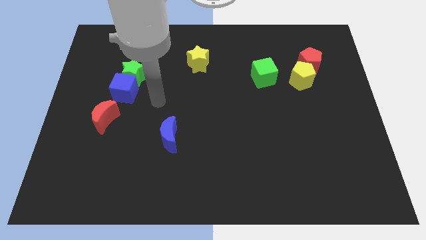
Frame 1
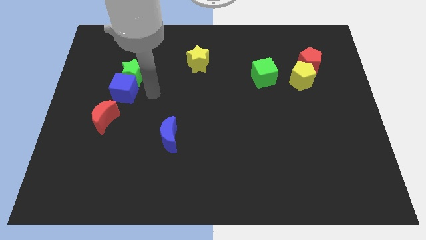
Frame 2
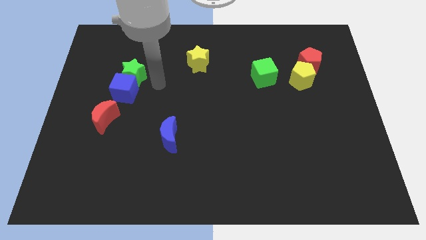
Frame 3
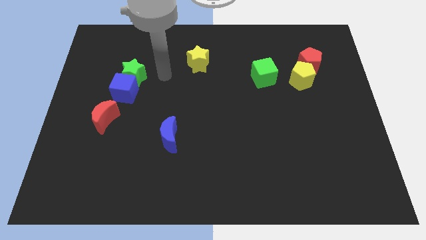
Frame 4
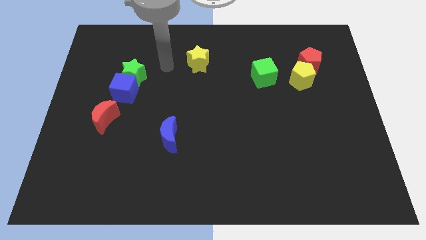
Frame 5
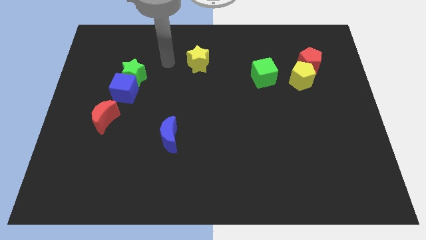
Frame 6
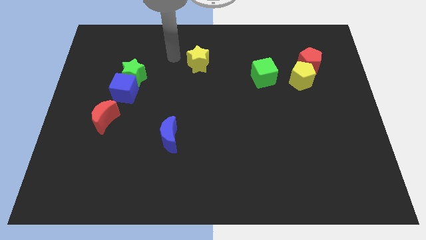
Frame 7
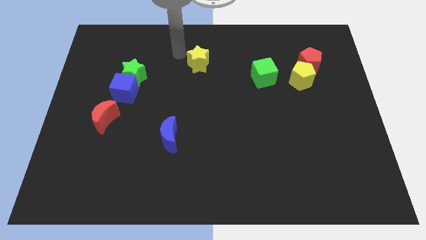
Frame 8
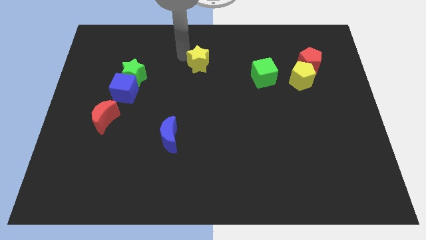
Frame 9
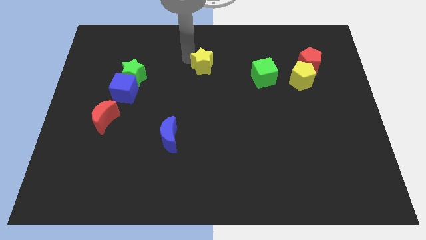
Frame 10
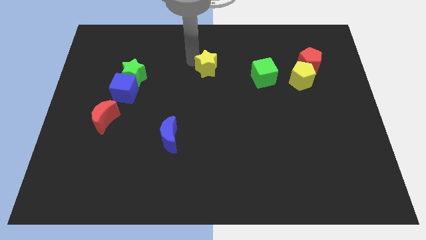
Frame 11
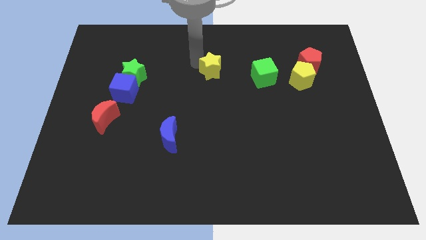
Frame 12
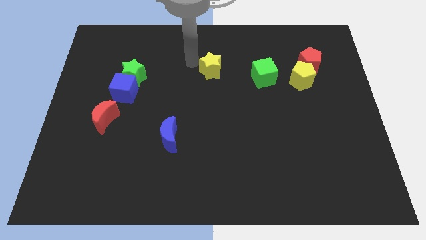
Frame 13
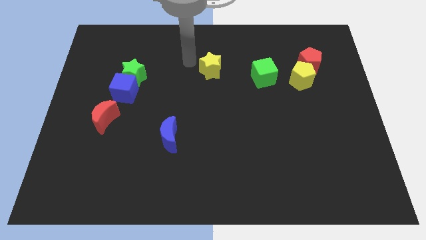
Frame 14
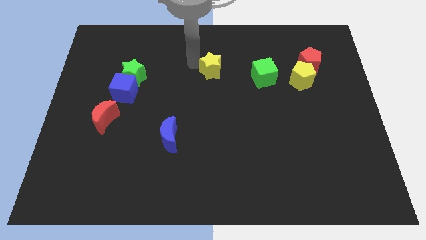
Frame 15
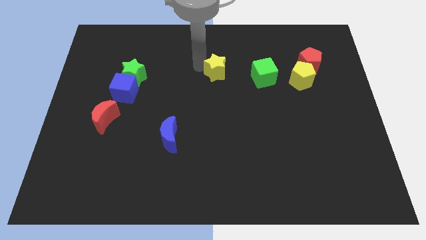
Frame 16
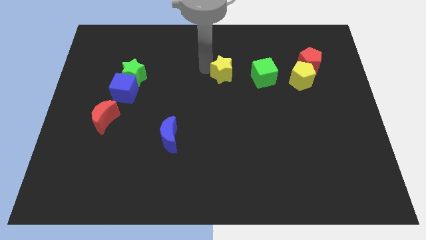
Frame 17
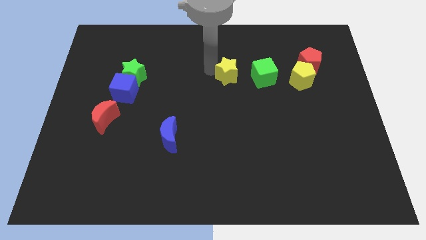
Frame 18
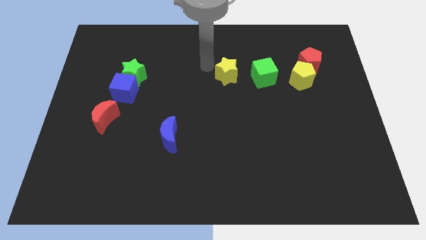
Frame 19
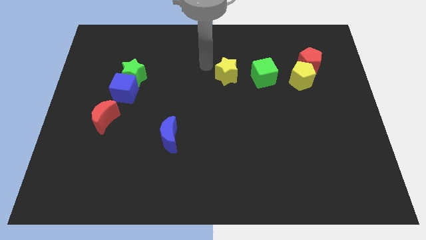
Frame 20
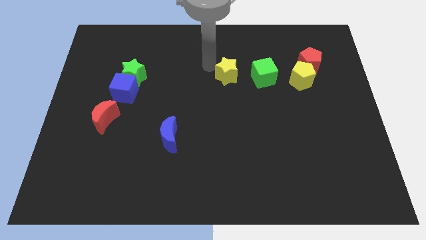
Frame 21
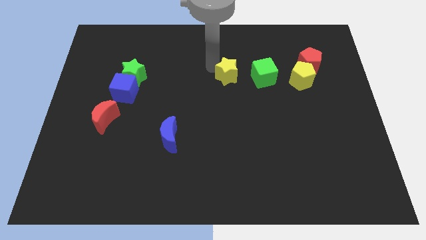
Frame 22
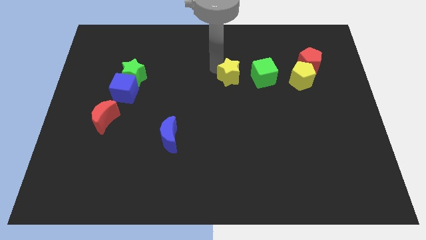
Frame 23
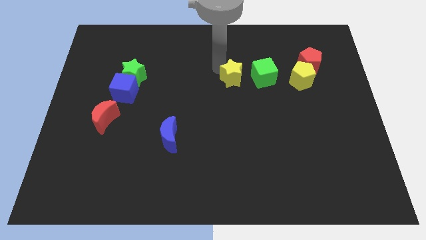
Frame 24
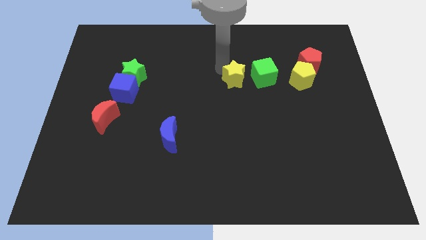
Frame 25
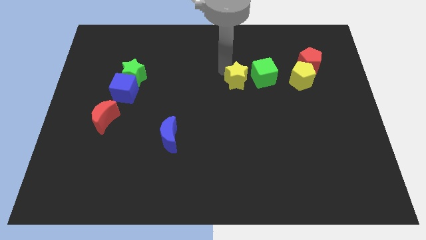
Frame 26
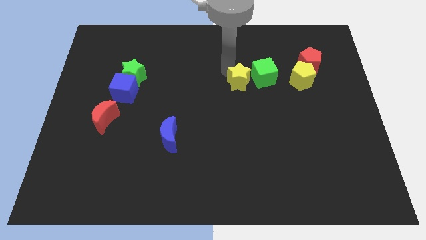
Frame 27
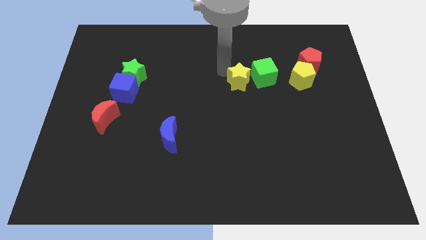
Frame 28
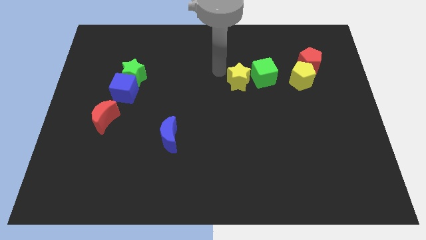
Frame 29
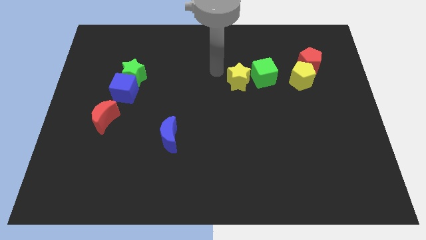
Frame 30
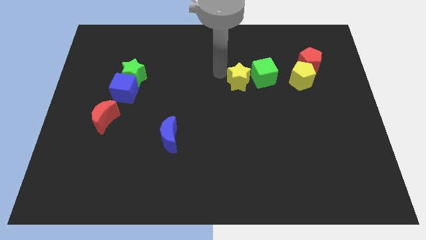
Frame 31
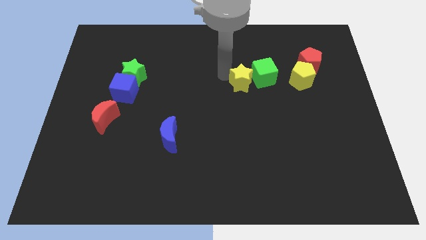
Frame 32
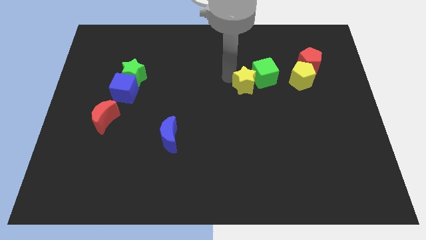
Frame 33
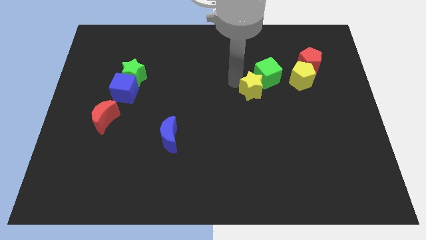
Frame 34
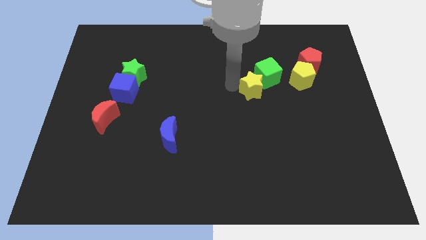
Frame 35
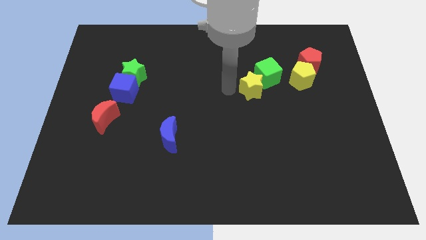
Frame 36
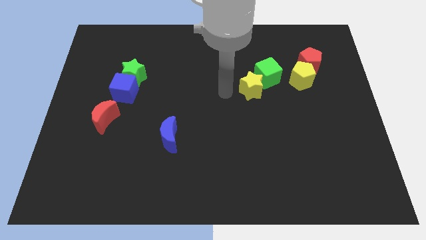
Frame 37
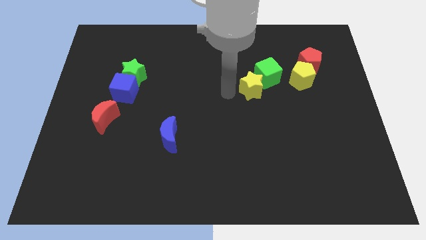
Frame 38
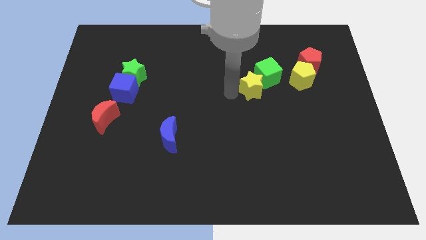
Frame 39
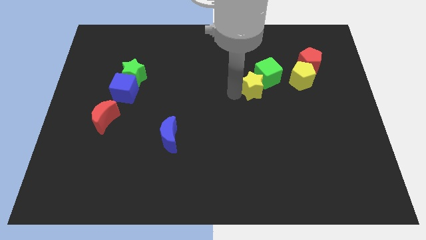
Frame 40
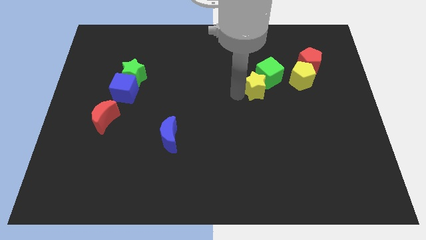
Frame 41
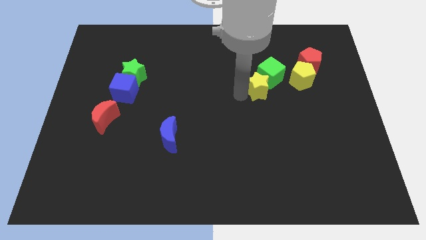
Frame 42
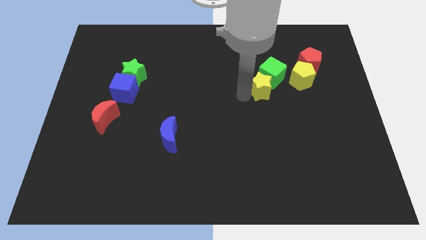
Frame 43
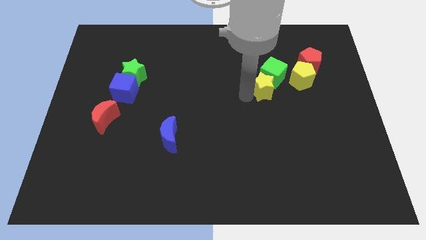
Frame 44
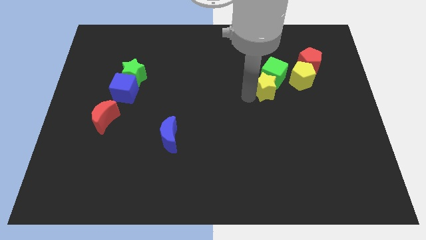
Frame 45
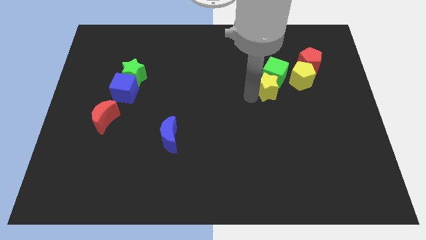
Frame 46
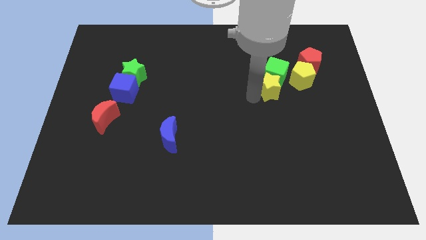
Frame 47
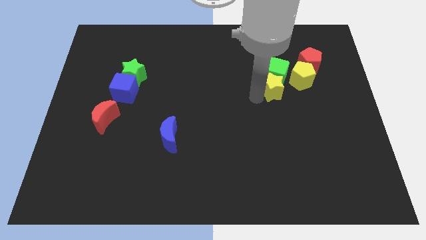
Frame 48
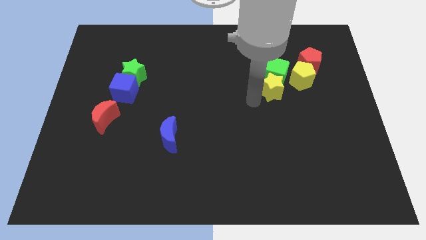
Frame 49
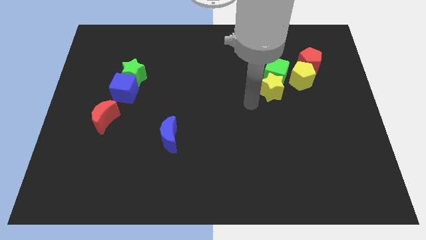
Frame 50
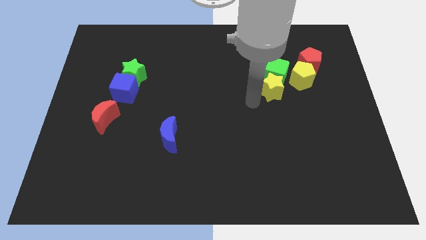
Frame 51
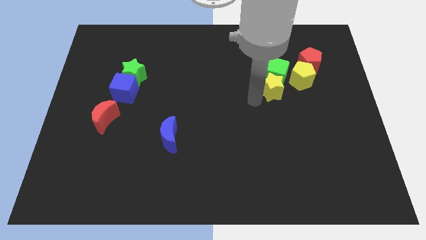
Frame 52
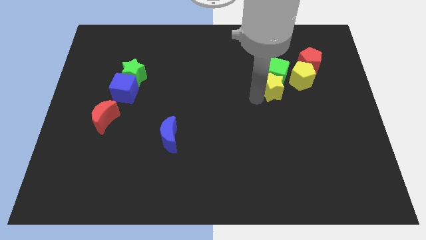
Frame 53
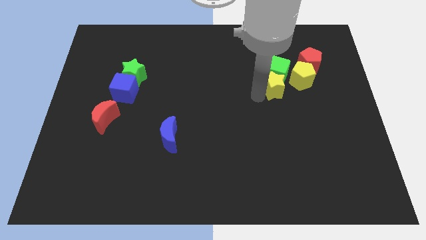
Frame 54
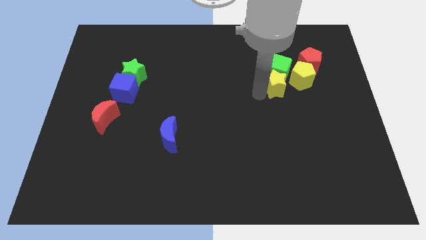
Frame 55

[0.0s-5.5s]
push the yellow star to the bottom left of the red pentagon

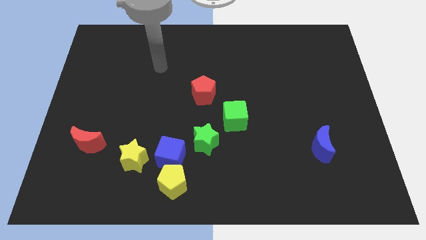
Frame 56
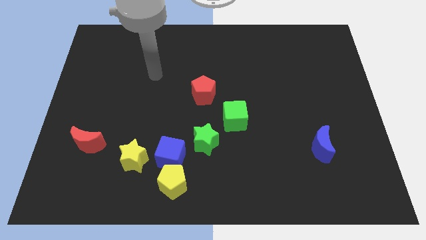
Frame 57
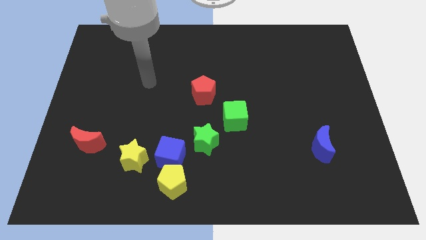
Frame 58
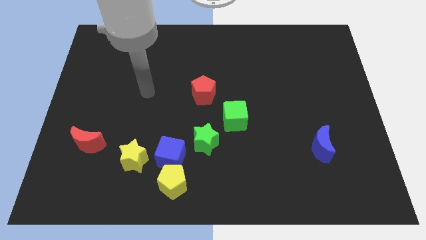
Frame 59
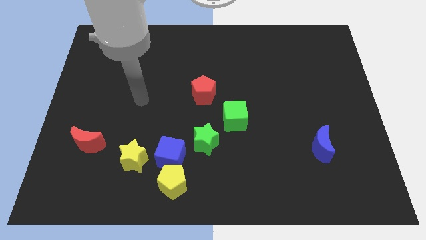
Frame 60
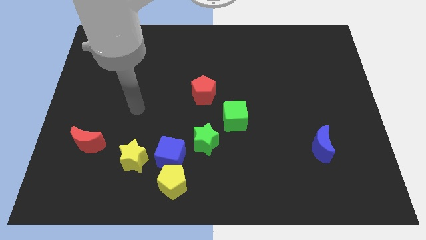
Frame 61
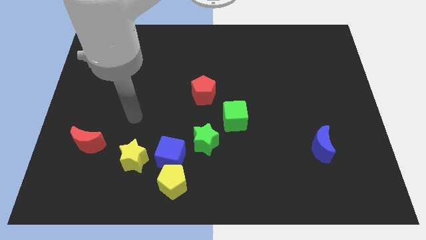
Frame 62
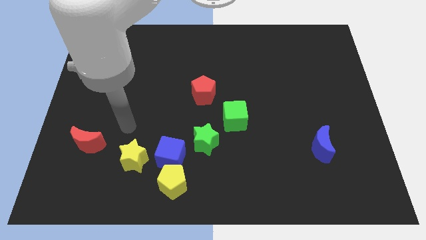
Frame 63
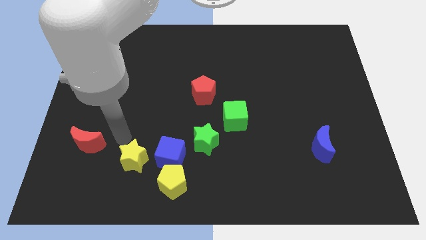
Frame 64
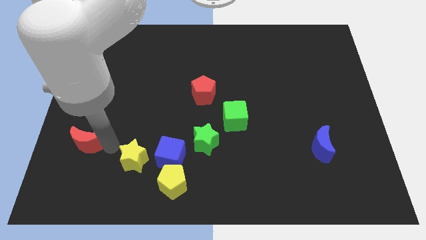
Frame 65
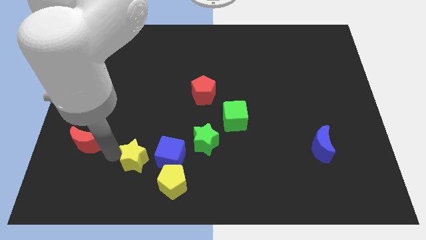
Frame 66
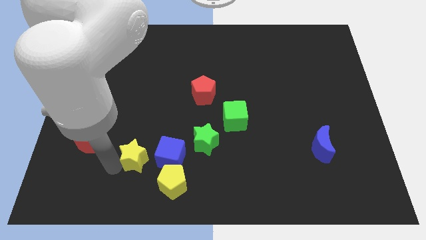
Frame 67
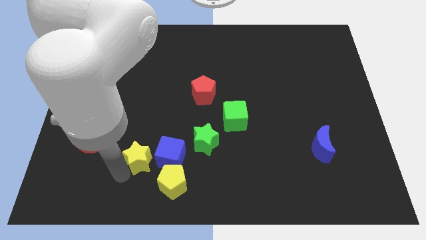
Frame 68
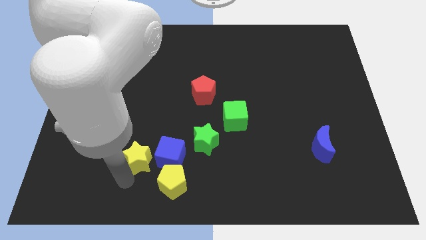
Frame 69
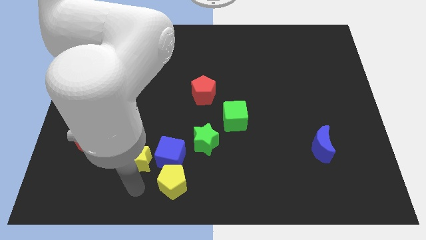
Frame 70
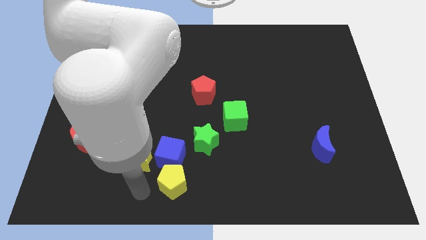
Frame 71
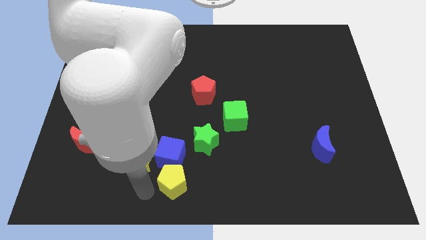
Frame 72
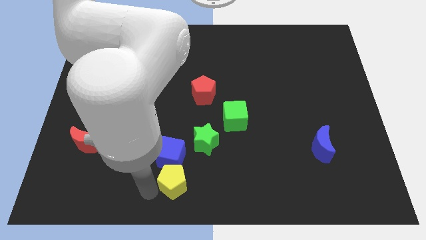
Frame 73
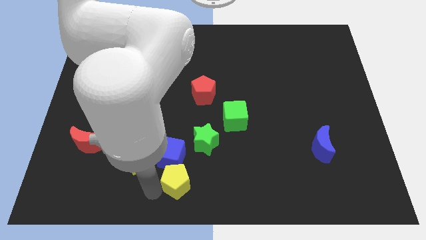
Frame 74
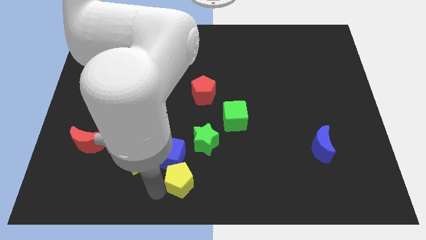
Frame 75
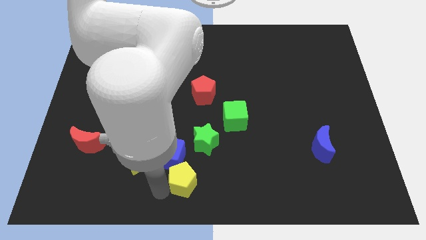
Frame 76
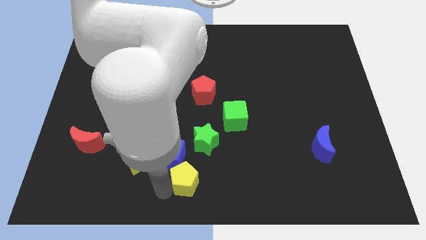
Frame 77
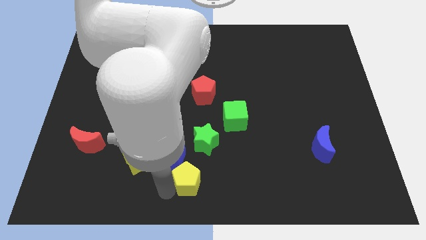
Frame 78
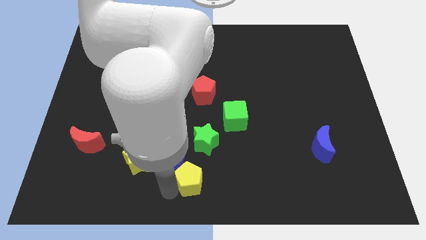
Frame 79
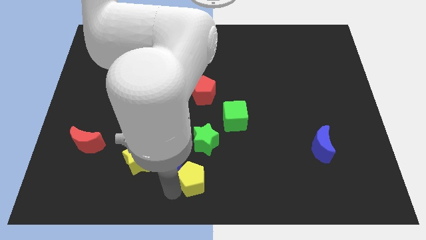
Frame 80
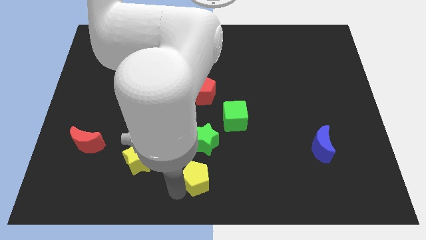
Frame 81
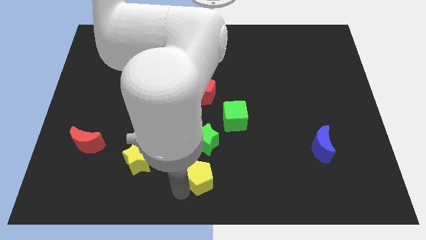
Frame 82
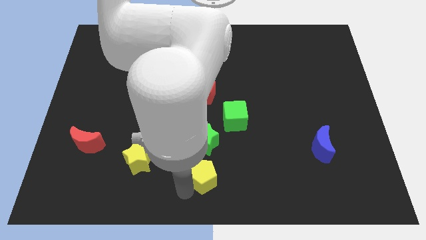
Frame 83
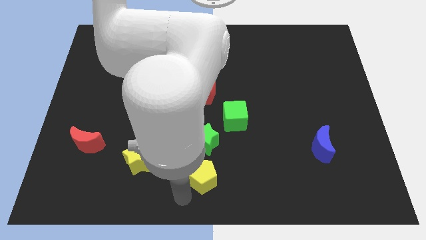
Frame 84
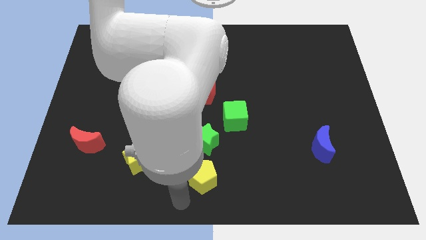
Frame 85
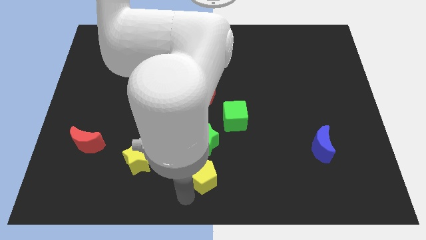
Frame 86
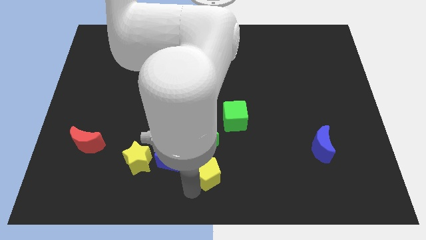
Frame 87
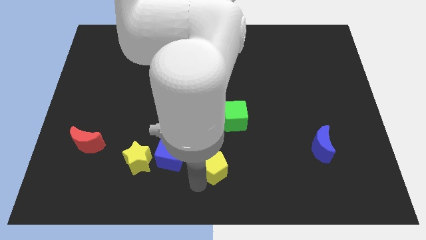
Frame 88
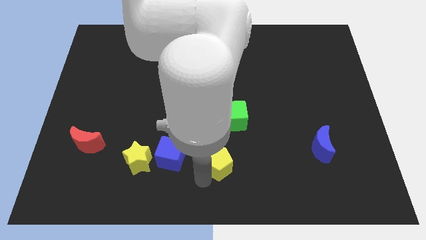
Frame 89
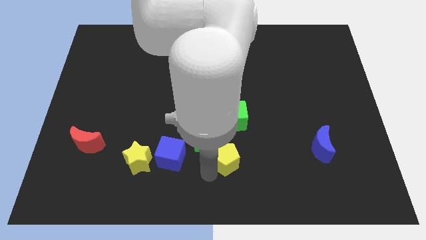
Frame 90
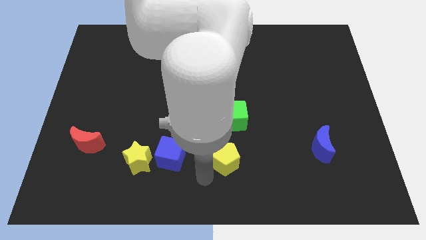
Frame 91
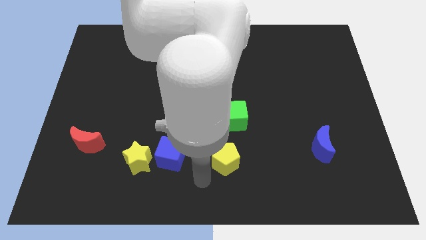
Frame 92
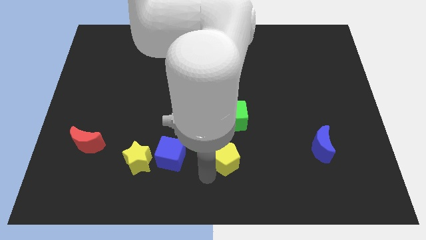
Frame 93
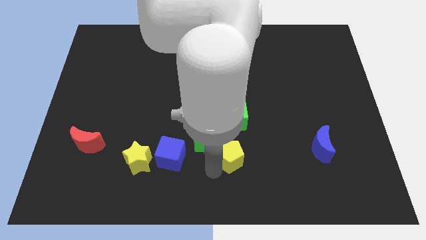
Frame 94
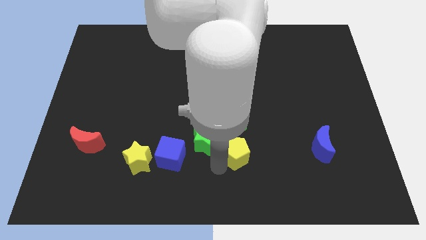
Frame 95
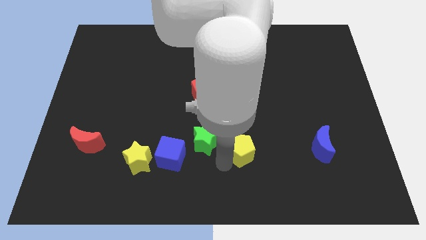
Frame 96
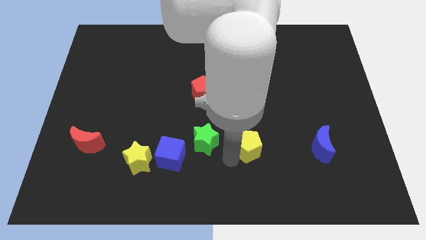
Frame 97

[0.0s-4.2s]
move the yellow pentagon diagonally down and to the right of the green cube
